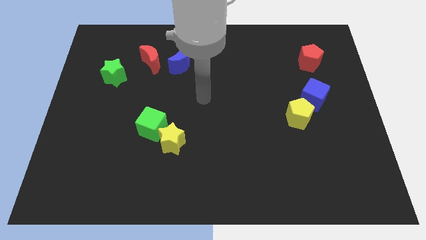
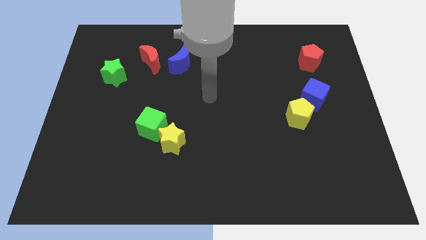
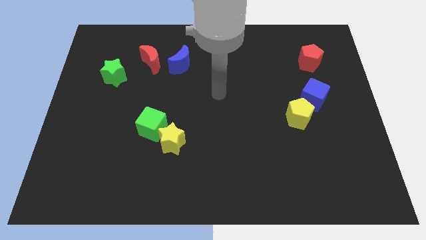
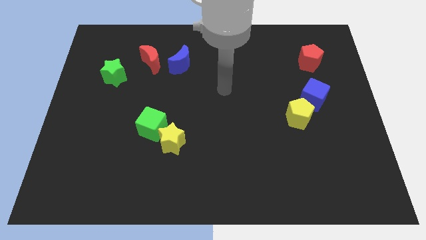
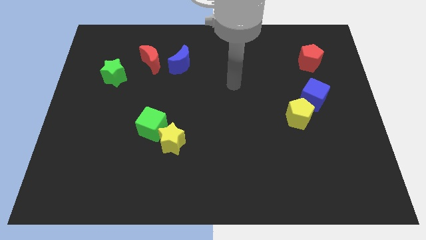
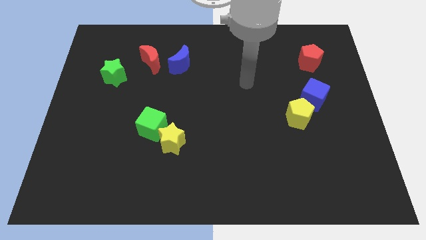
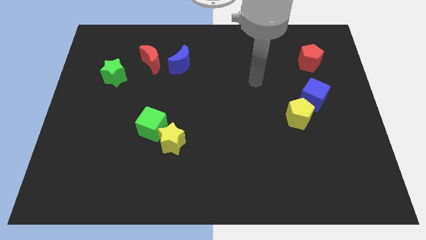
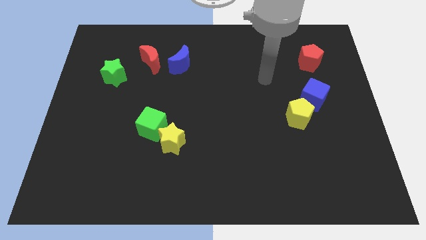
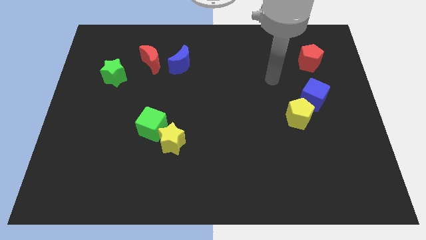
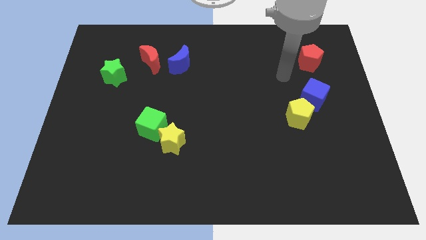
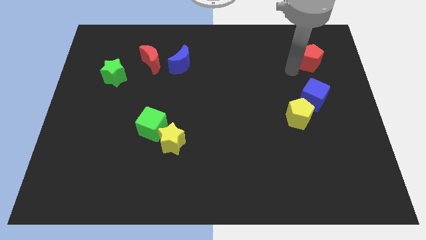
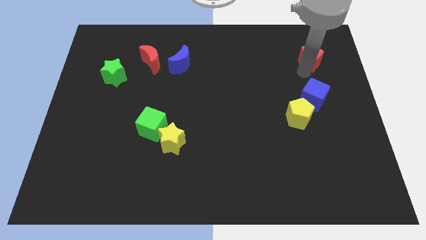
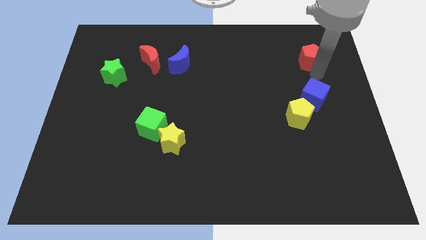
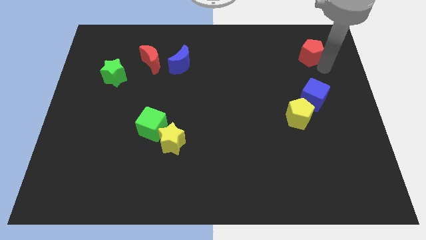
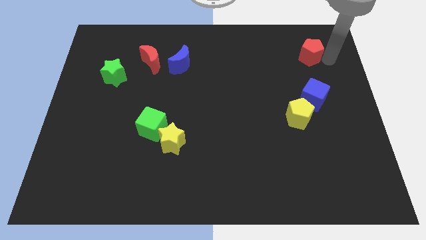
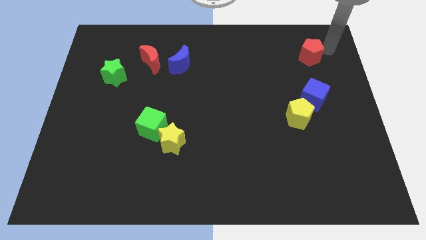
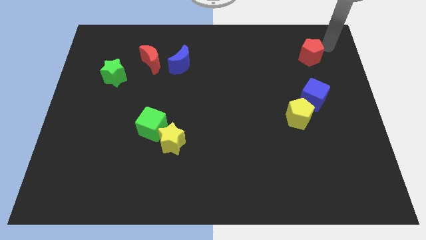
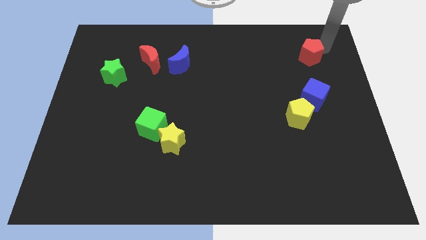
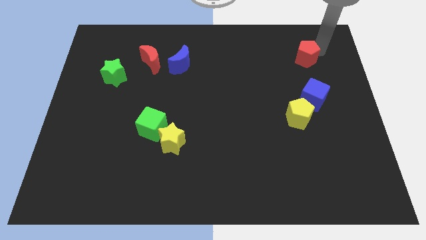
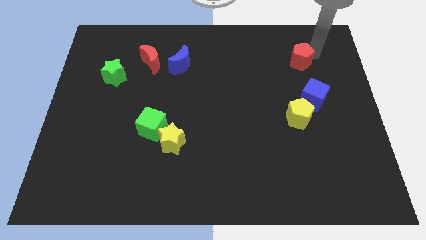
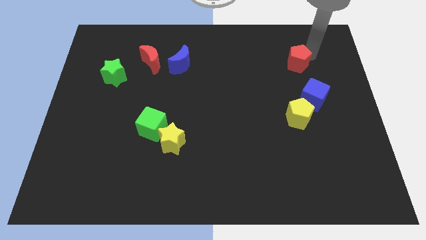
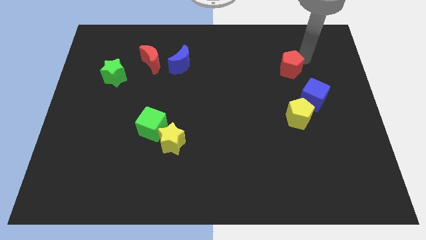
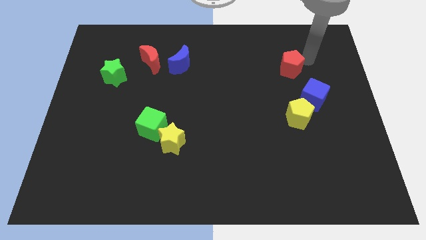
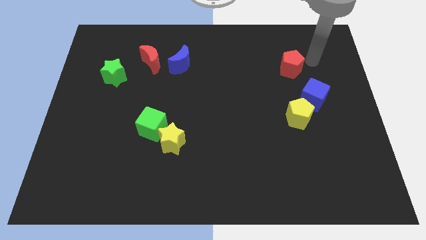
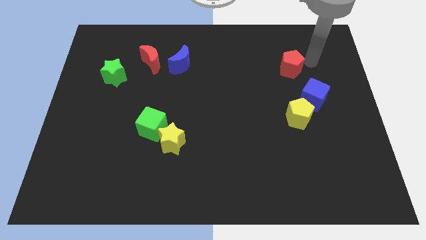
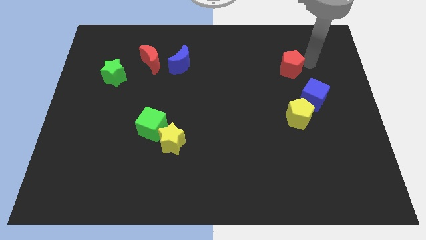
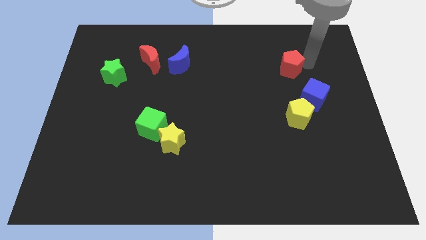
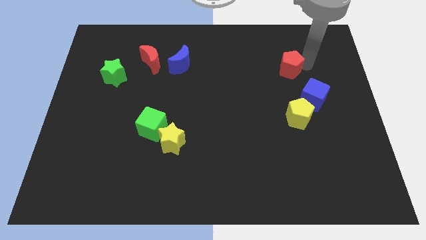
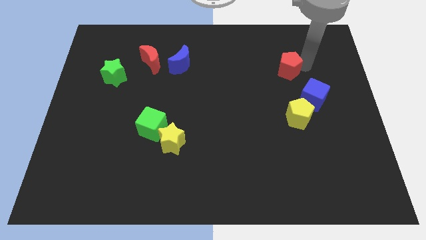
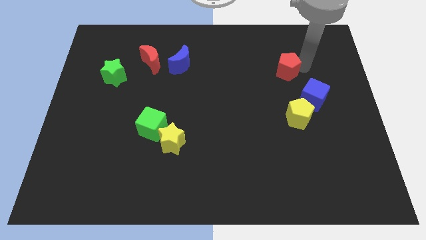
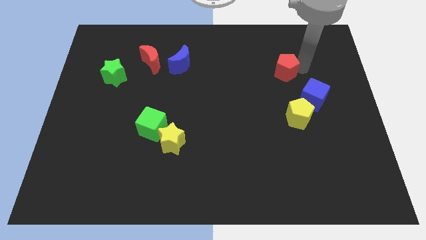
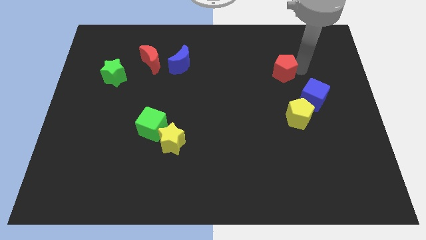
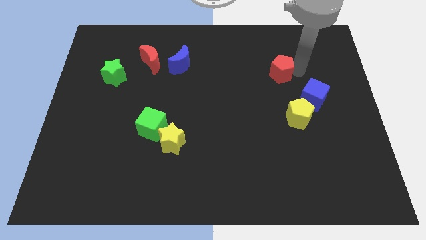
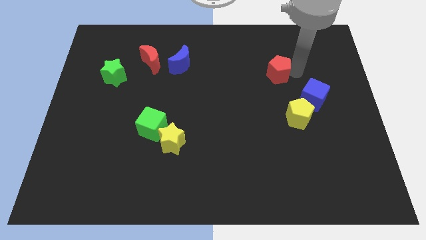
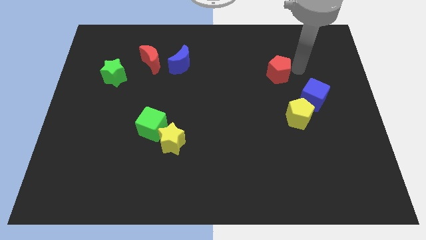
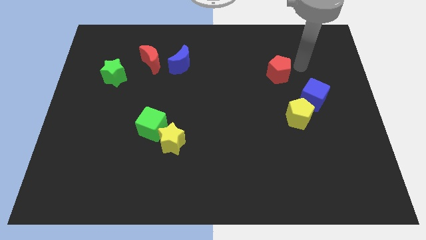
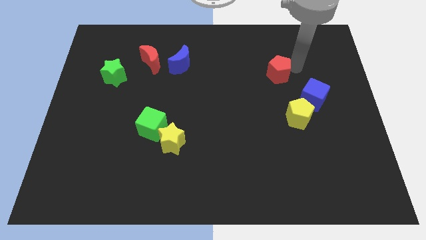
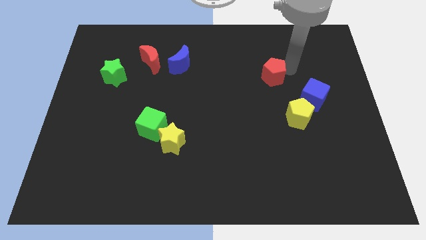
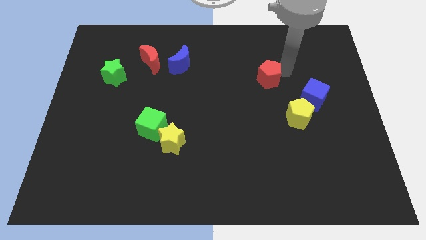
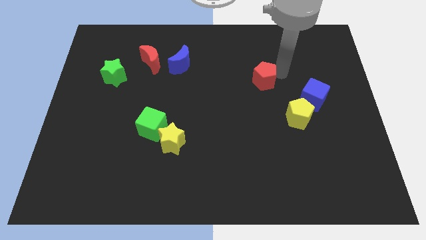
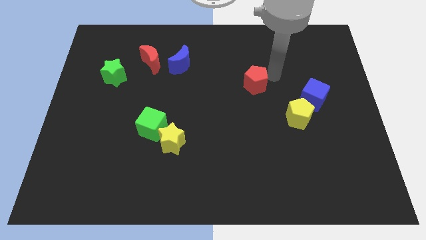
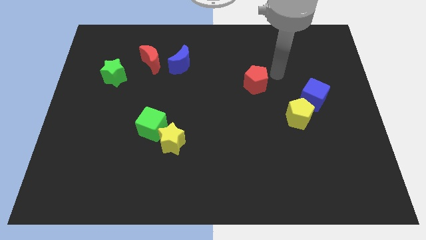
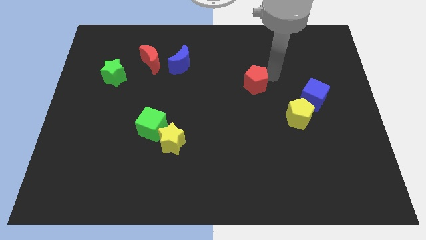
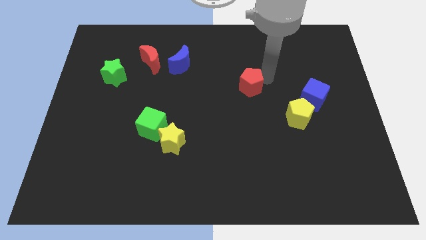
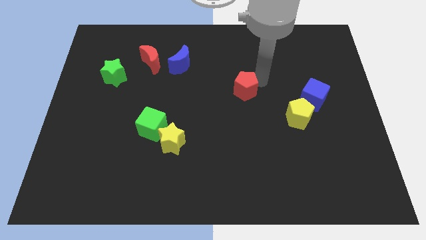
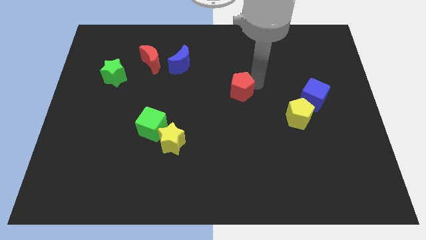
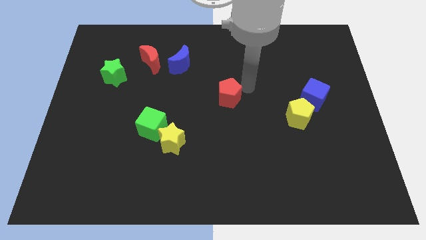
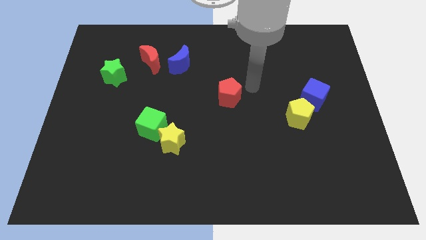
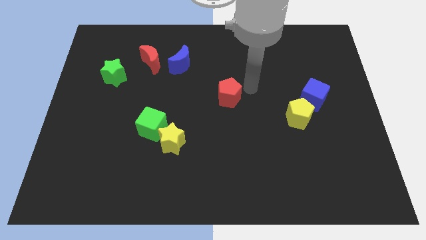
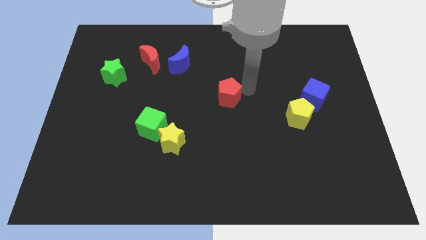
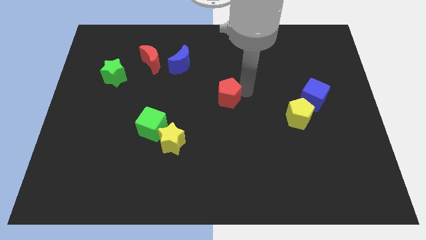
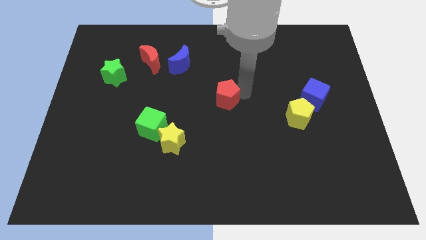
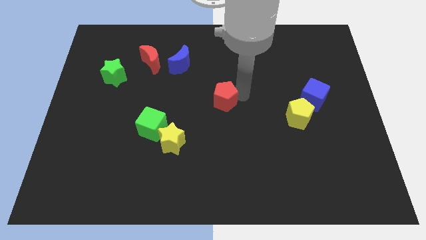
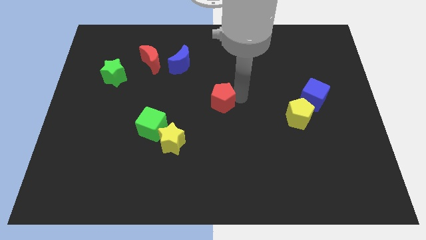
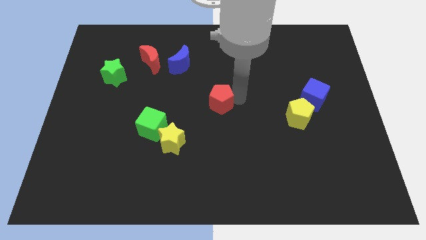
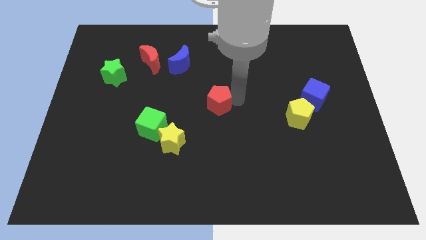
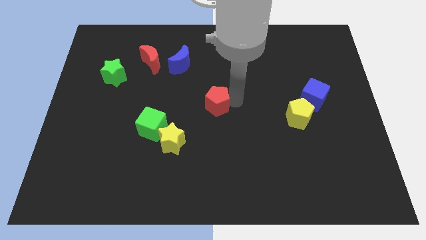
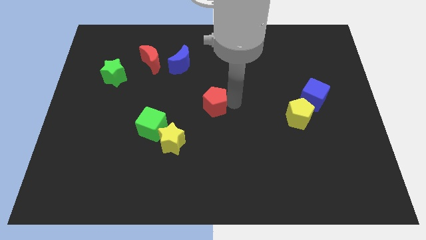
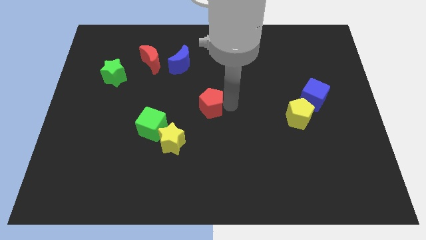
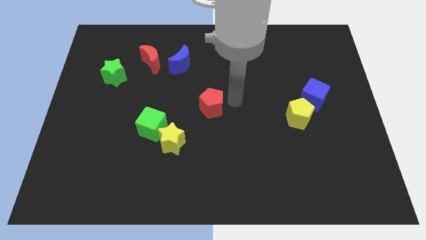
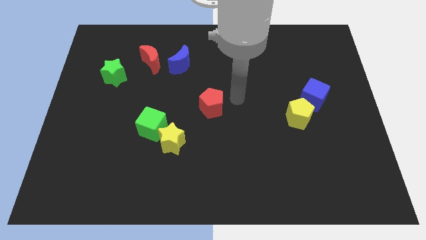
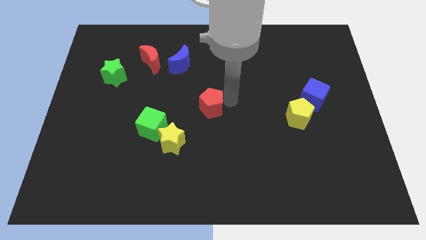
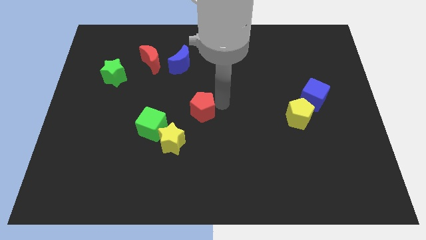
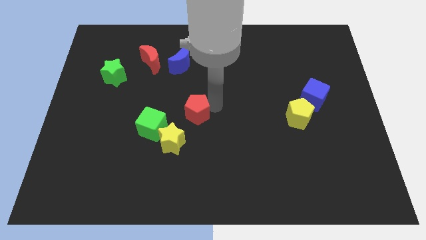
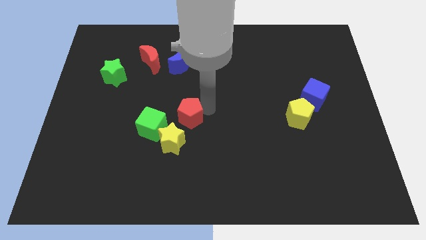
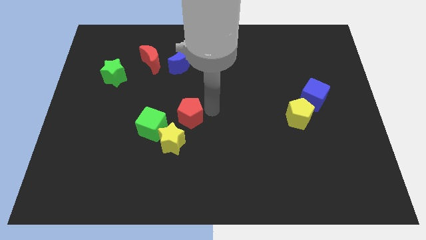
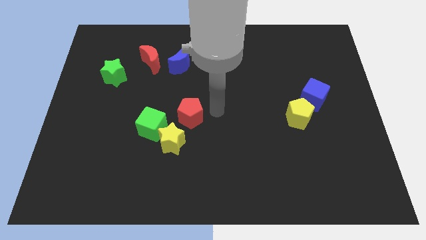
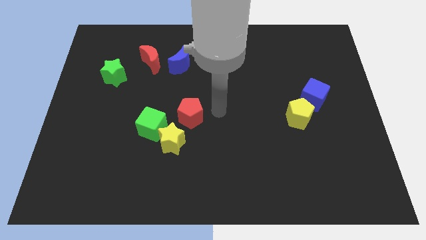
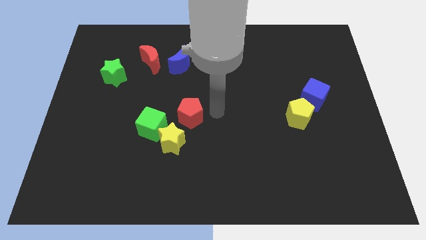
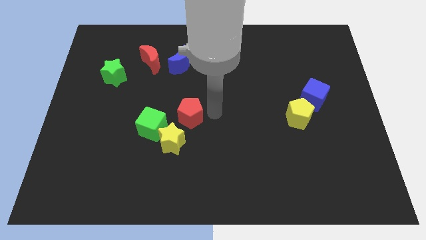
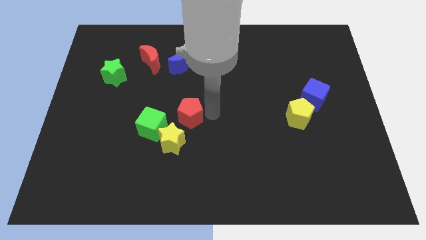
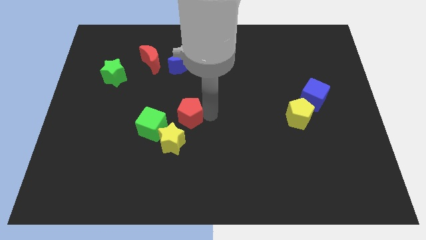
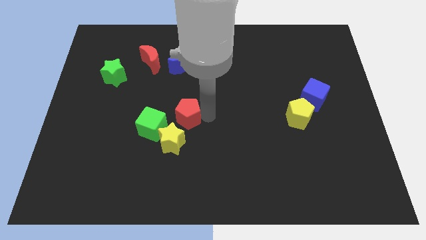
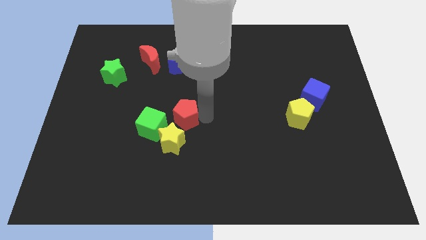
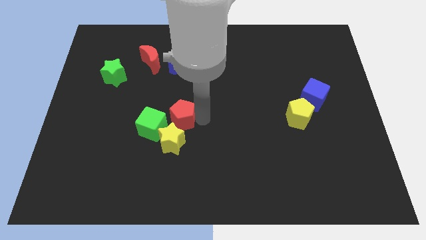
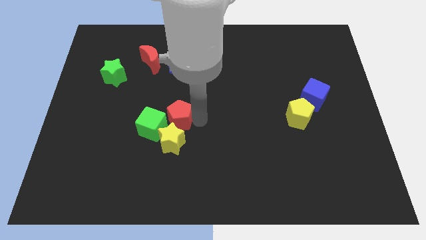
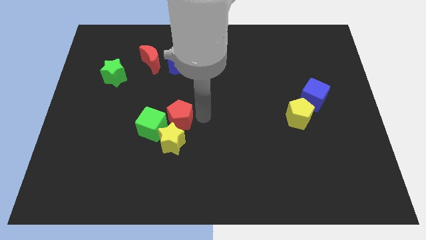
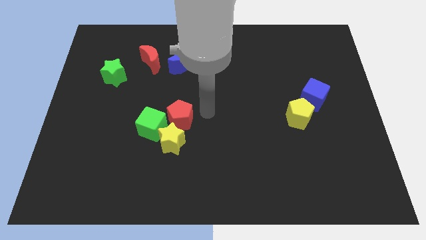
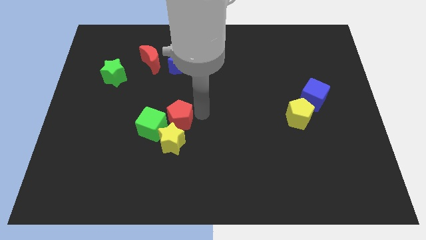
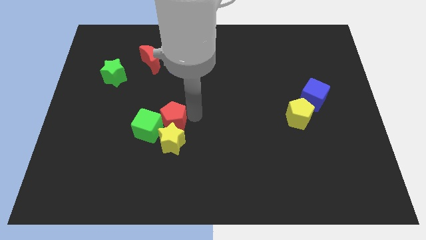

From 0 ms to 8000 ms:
slide the red pentagon to the green cube
